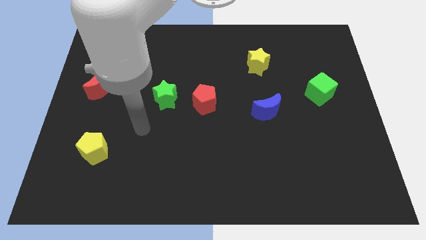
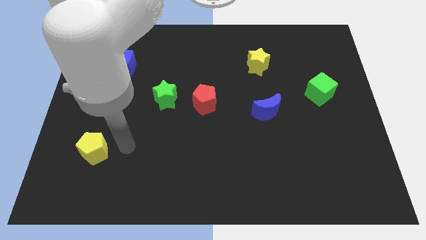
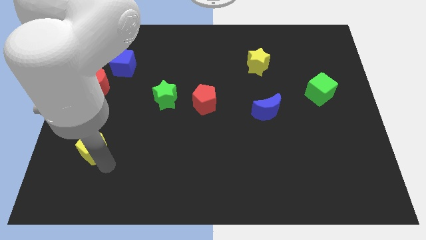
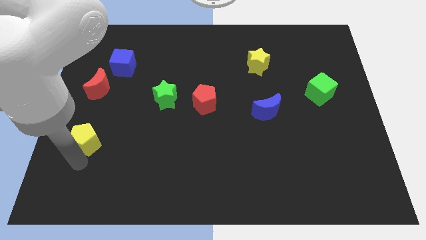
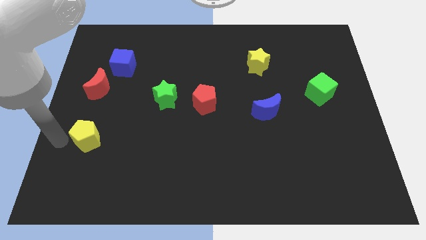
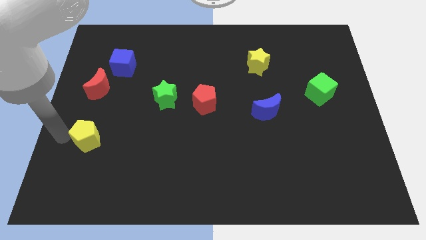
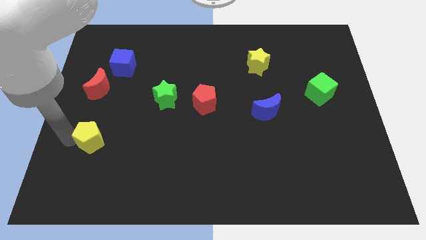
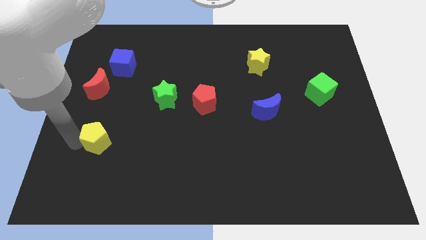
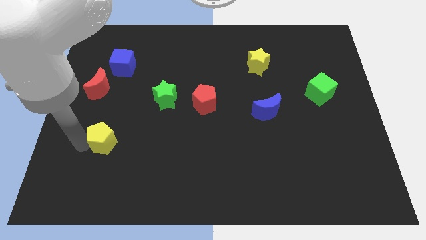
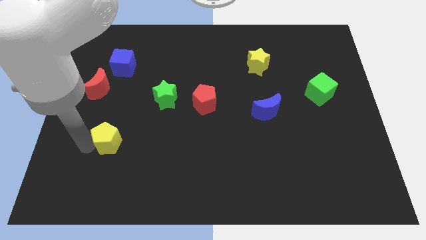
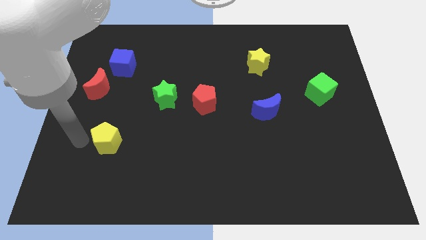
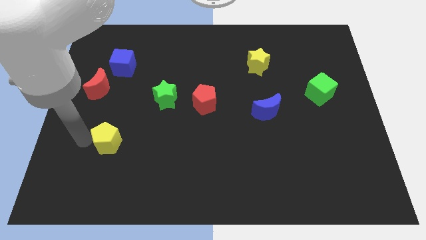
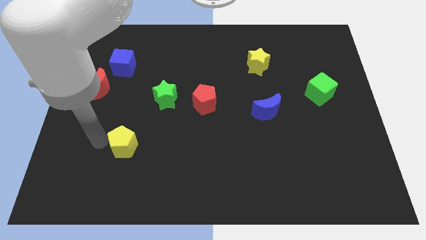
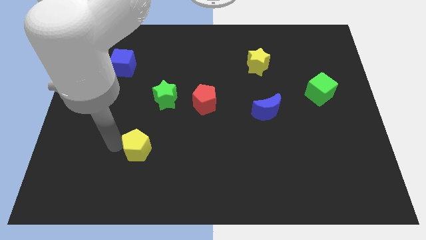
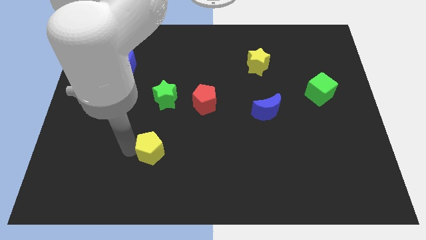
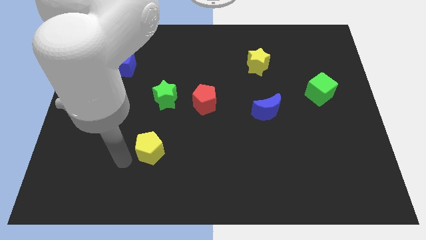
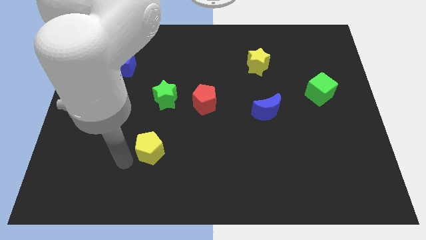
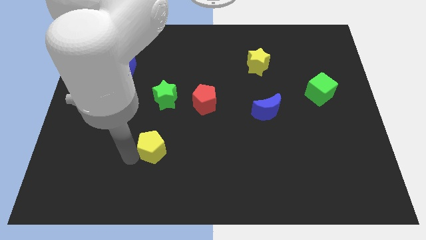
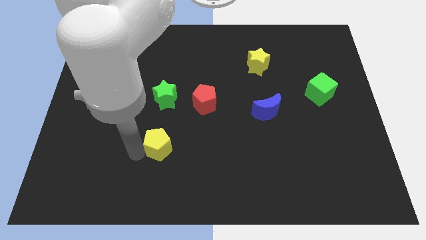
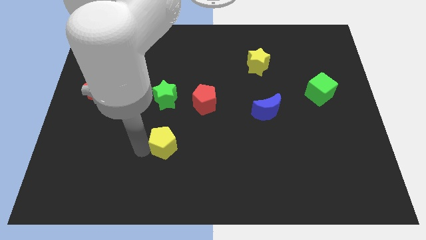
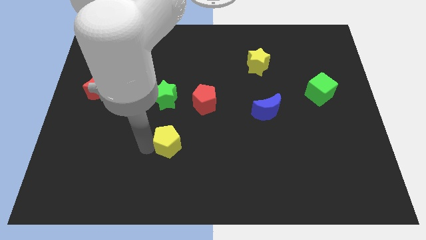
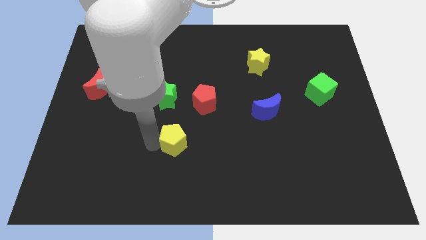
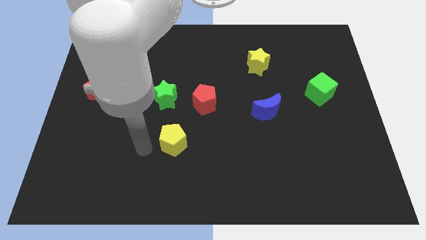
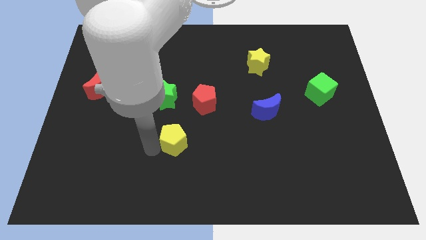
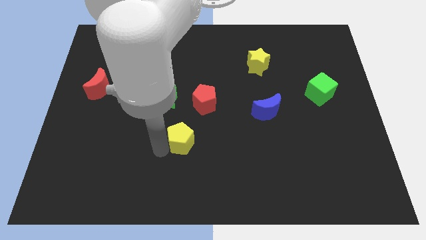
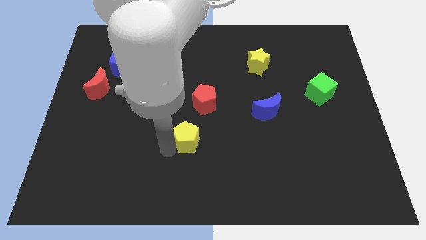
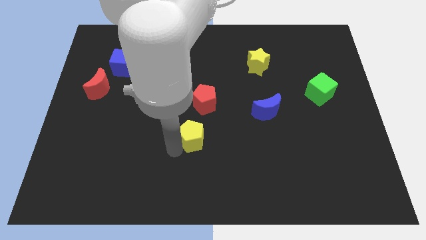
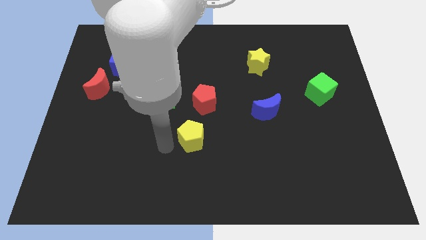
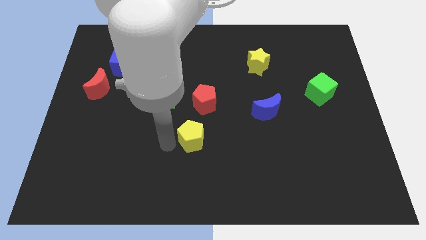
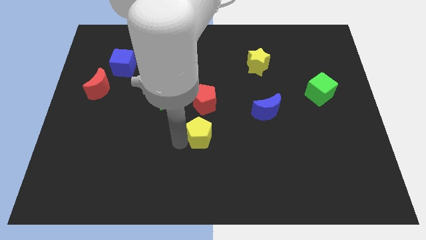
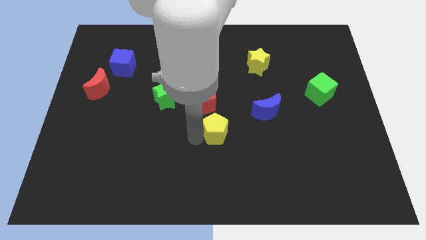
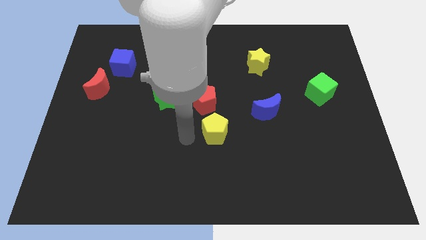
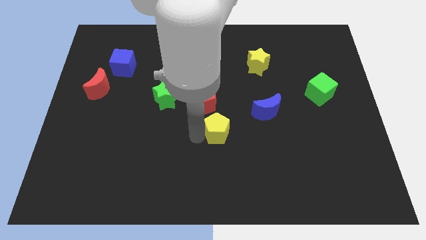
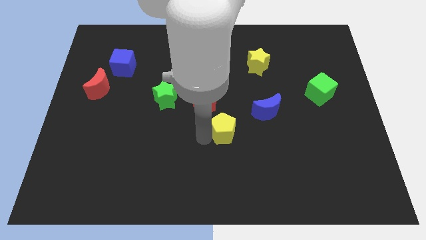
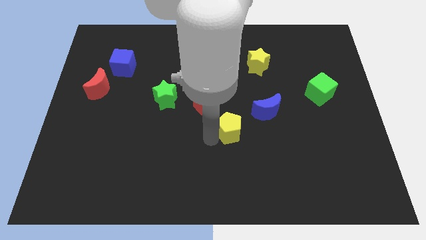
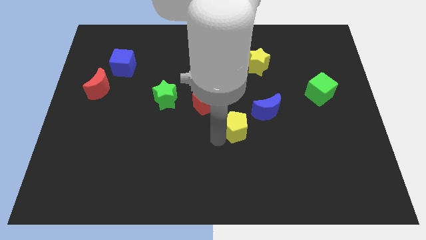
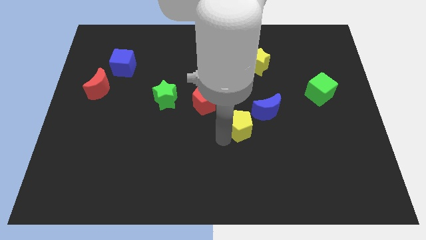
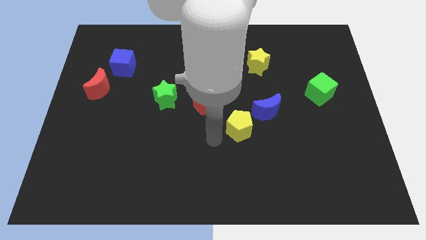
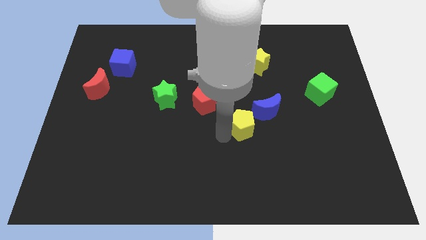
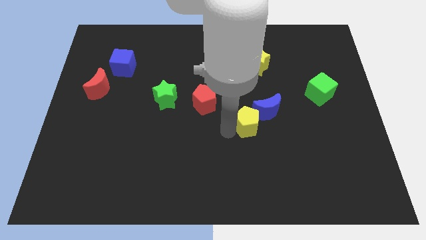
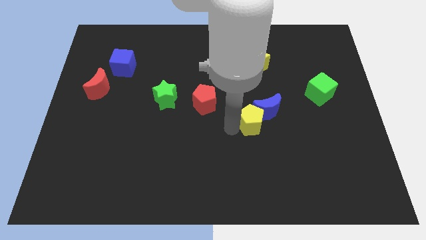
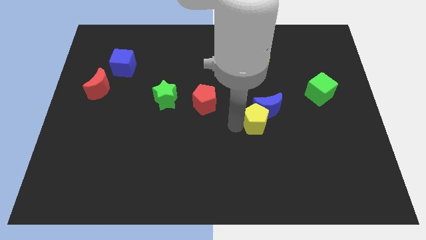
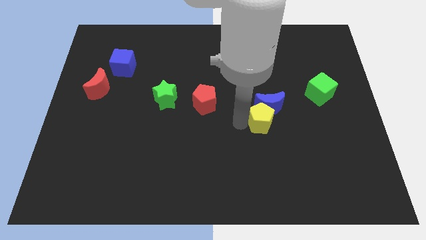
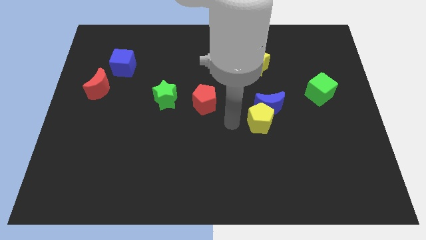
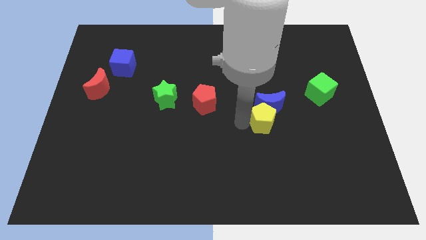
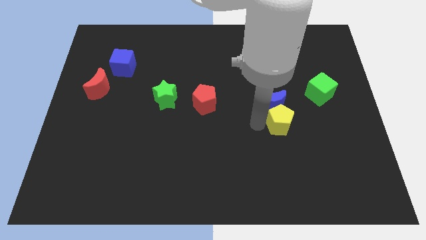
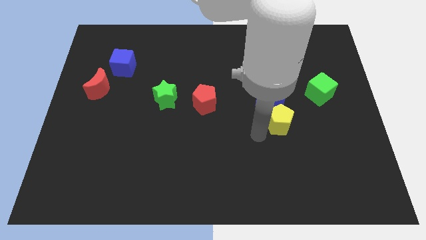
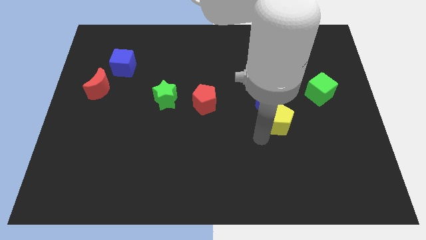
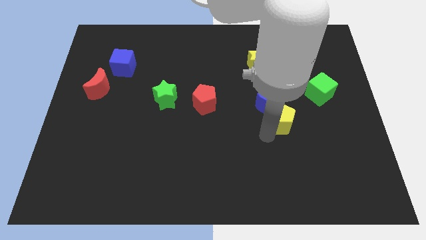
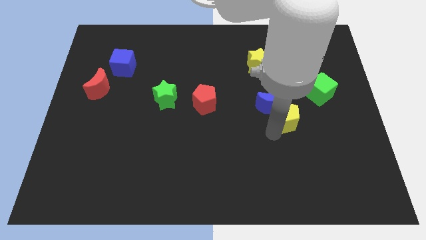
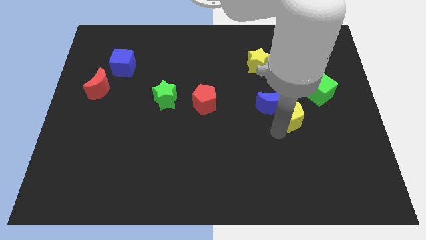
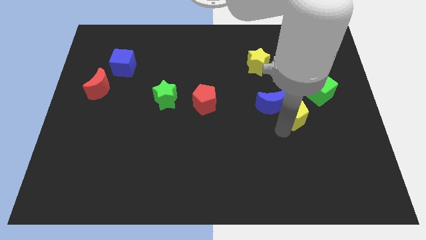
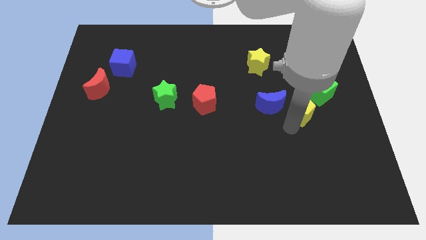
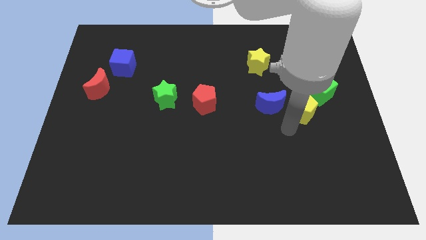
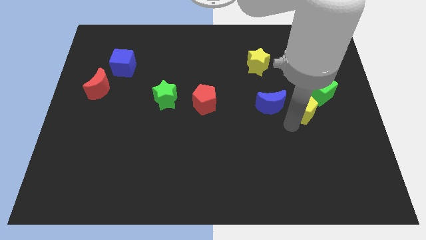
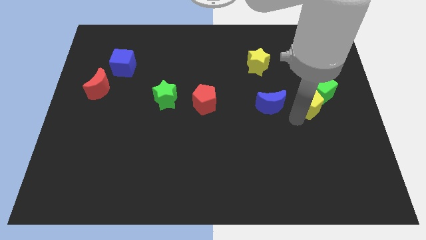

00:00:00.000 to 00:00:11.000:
push the yellow pentagon next to the green cube

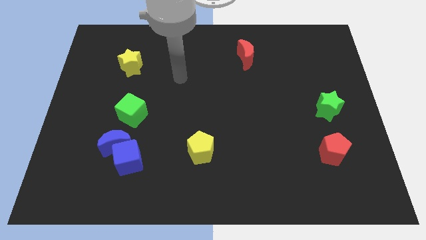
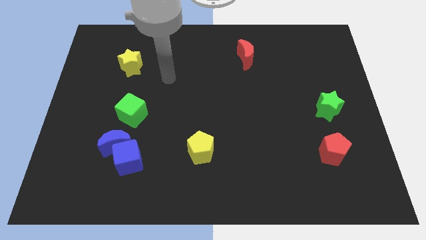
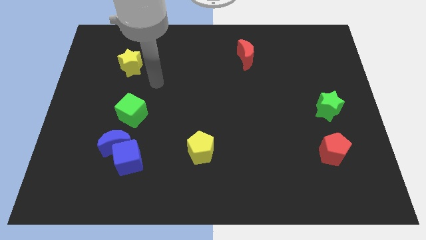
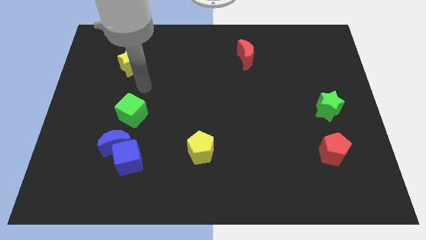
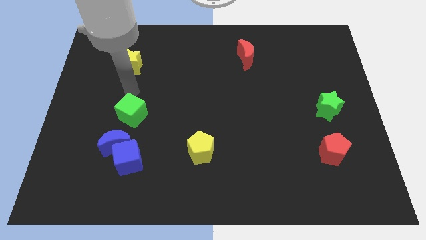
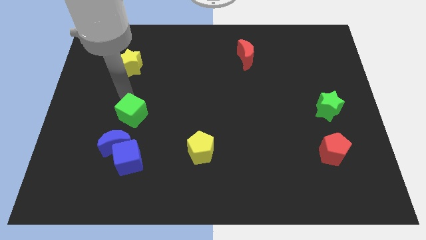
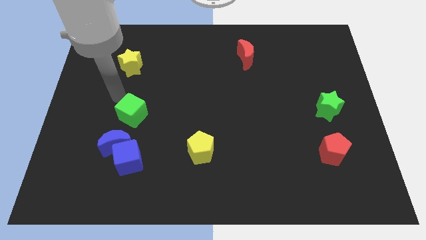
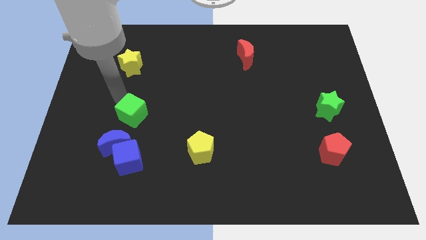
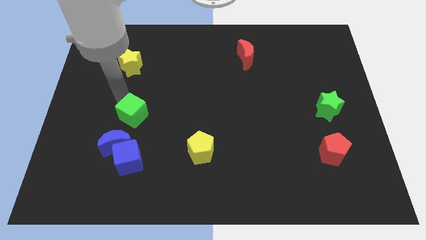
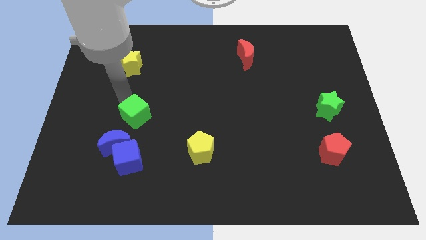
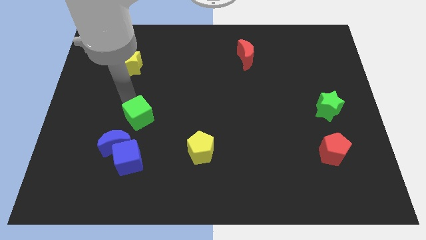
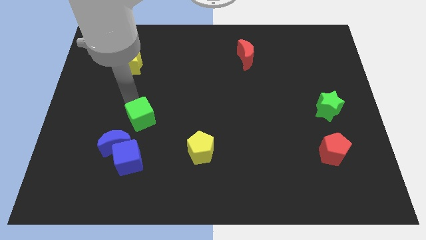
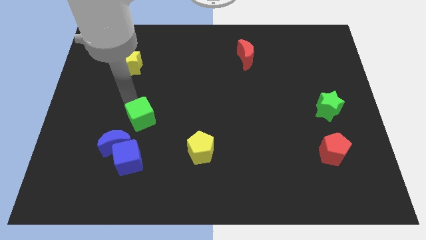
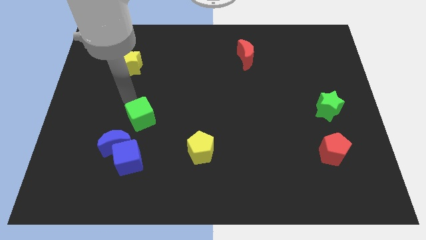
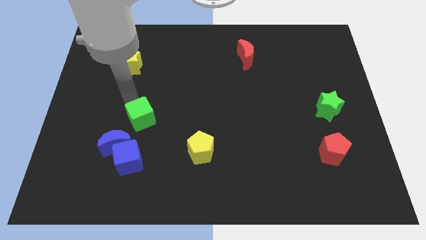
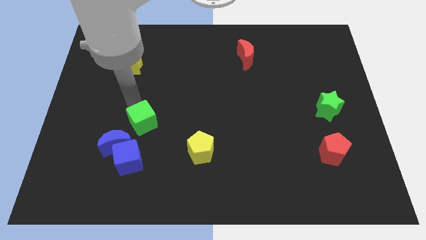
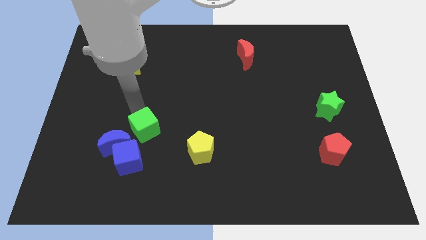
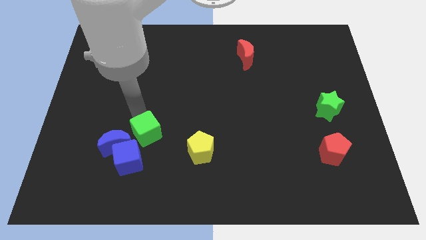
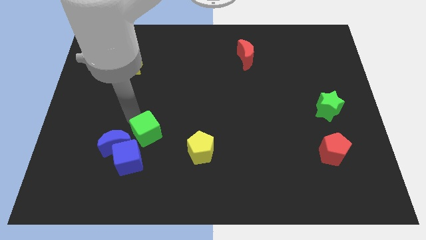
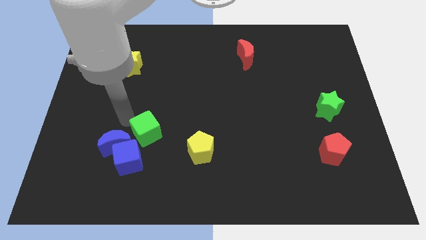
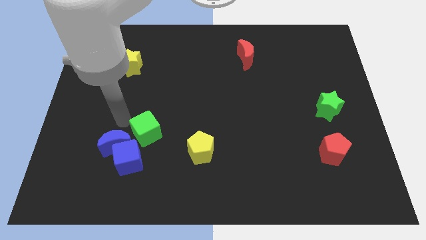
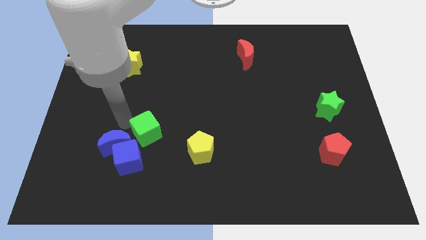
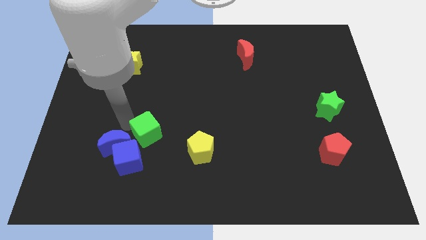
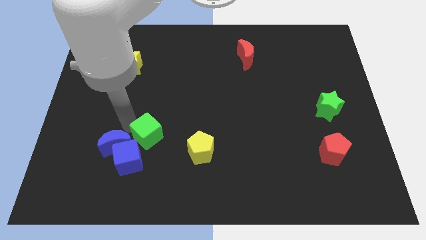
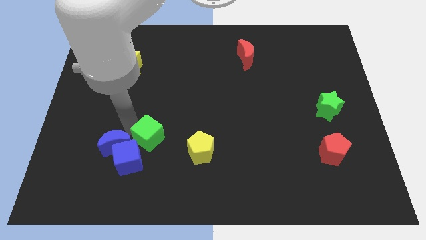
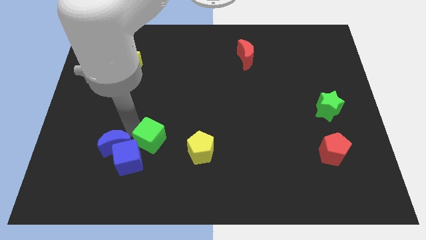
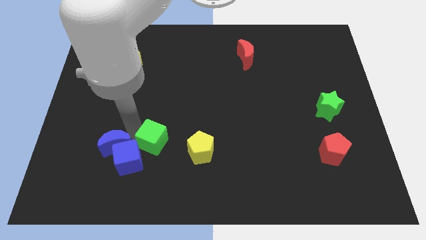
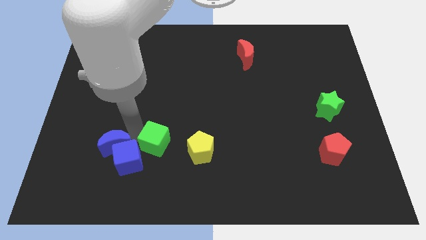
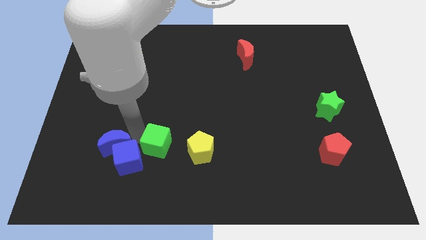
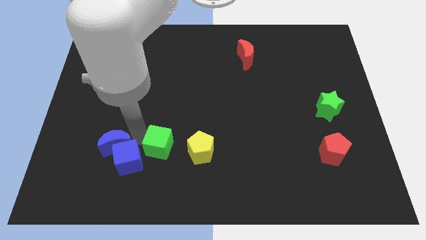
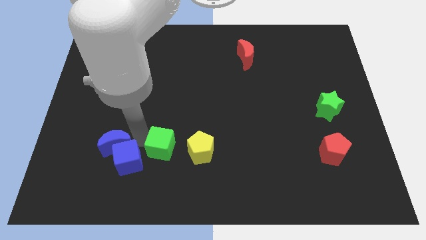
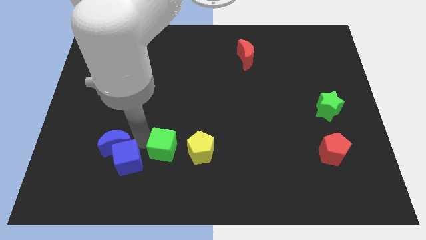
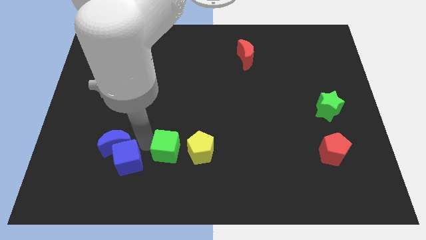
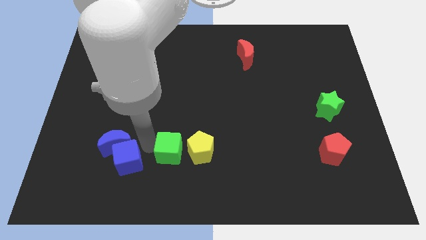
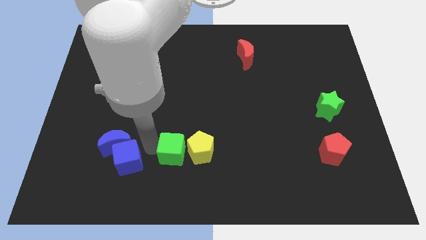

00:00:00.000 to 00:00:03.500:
slide the green cube towards the yellow pentagon
